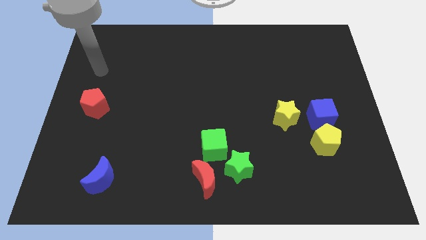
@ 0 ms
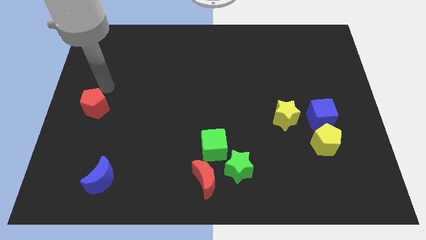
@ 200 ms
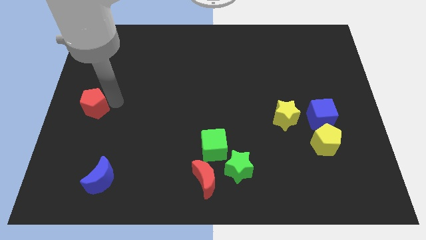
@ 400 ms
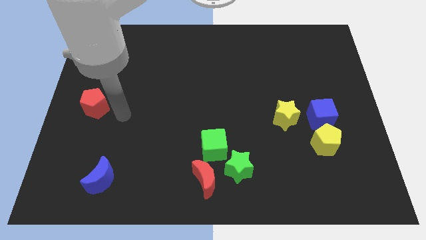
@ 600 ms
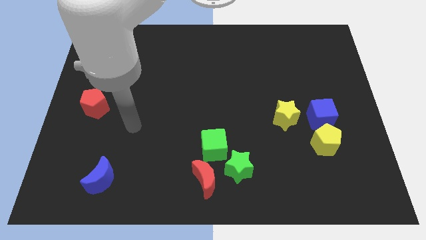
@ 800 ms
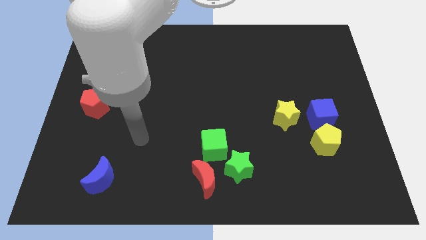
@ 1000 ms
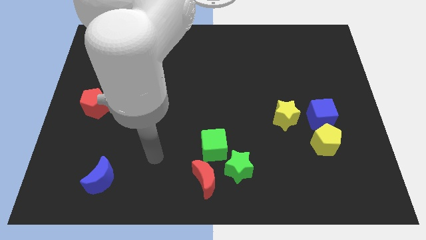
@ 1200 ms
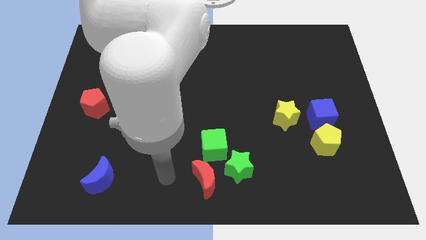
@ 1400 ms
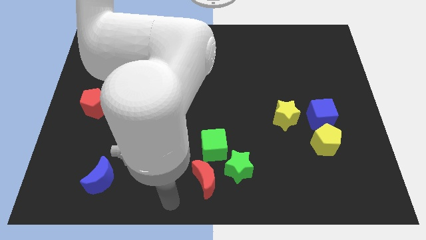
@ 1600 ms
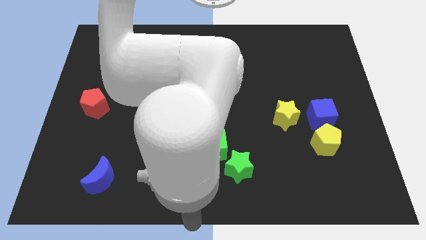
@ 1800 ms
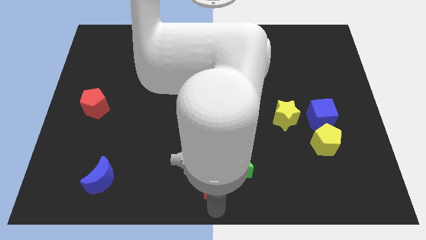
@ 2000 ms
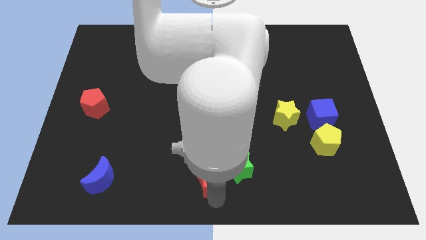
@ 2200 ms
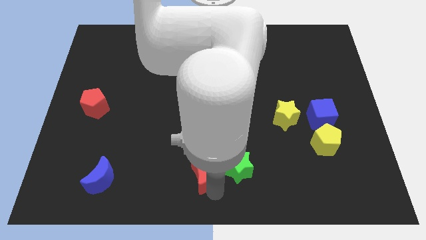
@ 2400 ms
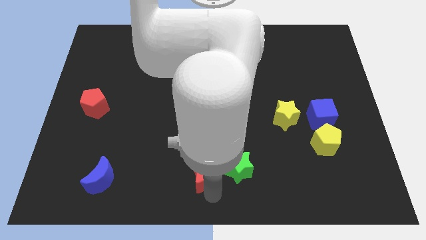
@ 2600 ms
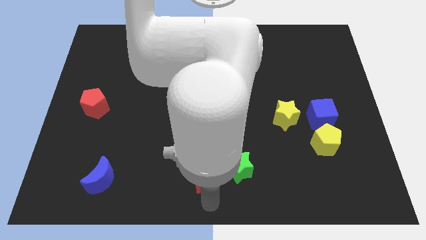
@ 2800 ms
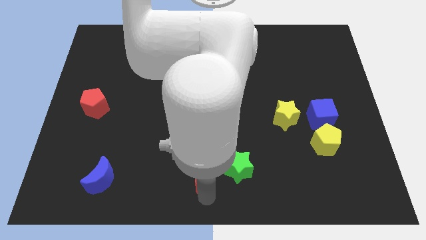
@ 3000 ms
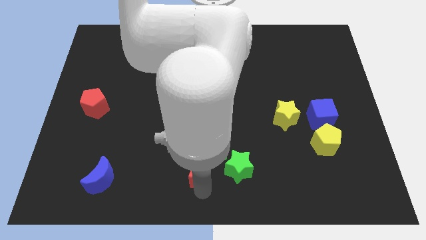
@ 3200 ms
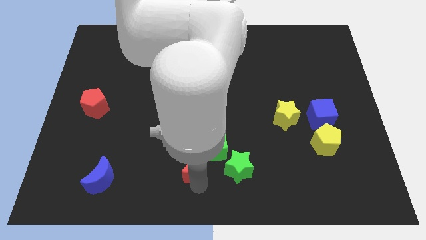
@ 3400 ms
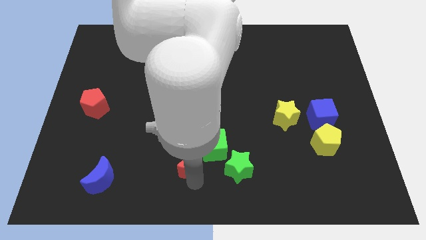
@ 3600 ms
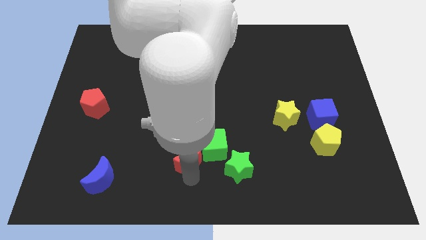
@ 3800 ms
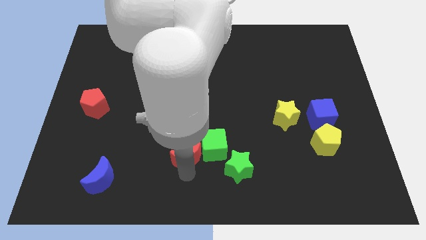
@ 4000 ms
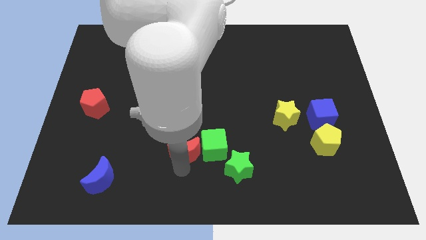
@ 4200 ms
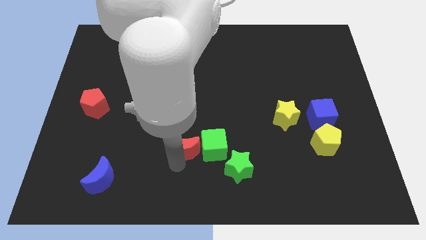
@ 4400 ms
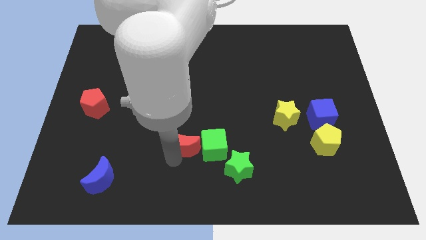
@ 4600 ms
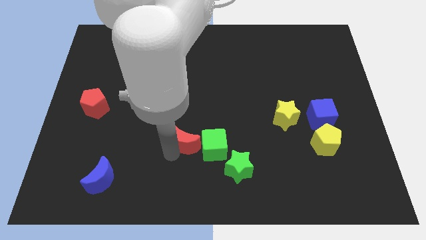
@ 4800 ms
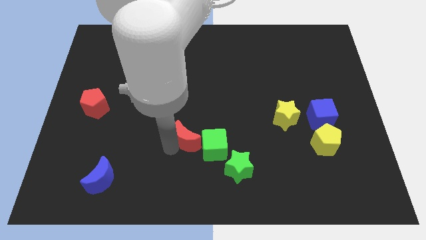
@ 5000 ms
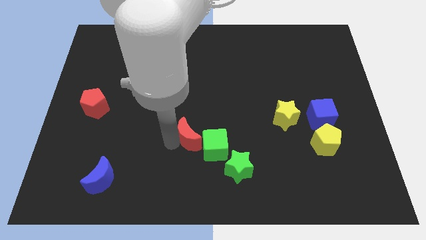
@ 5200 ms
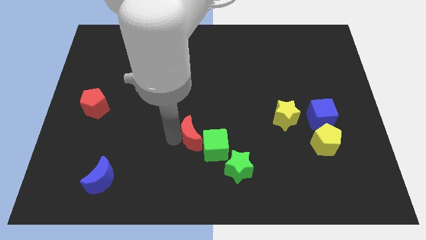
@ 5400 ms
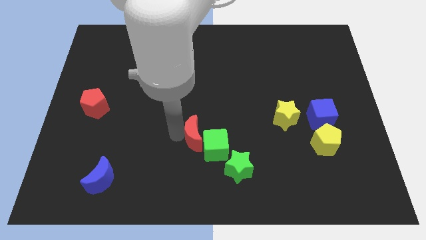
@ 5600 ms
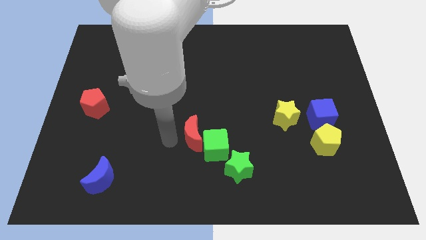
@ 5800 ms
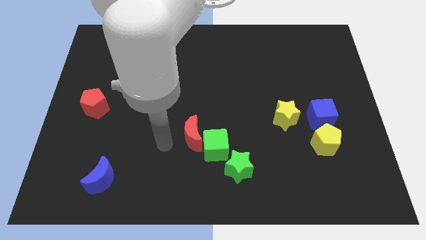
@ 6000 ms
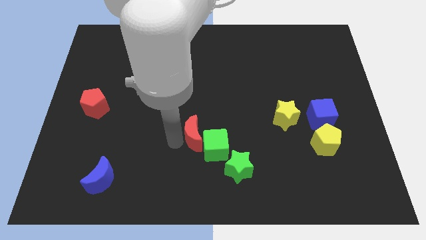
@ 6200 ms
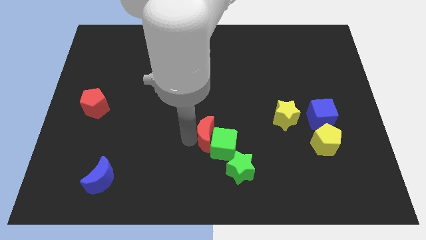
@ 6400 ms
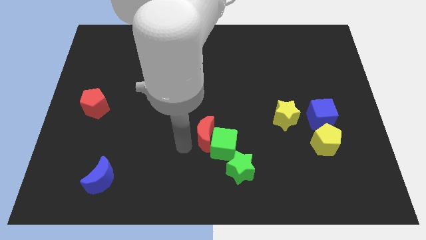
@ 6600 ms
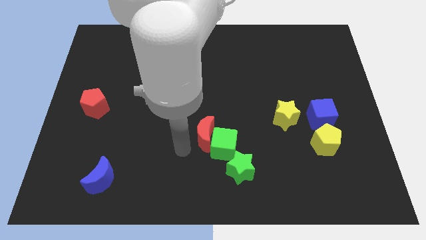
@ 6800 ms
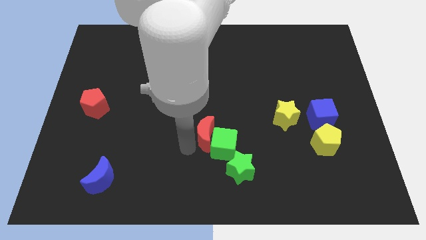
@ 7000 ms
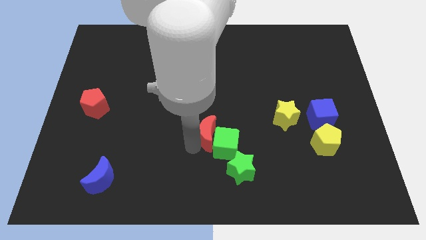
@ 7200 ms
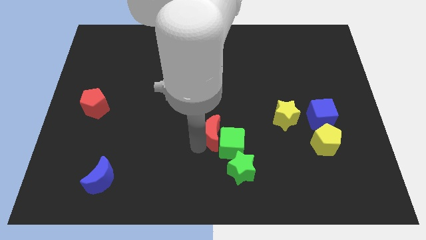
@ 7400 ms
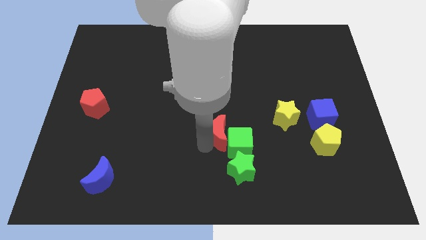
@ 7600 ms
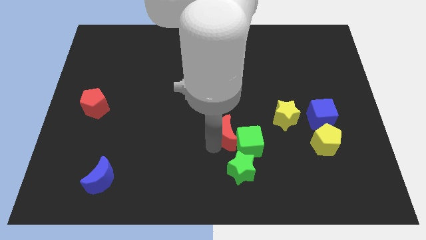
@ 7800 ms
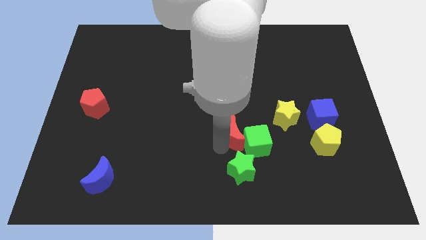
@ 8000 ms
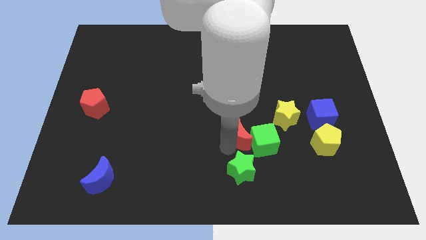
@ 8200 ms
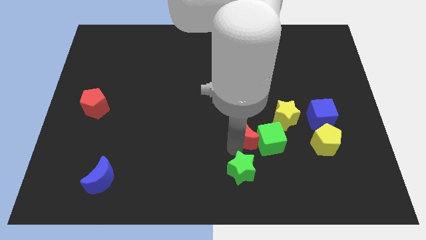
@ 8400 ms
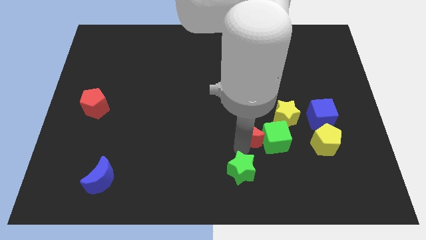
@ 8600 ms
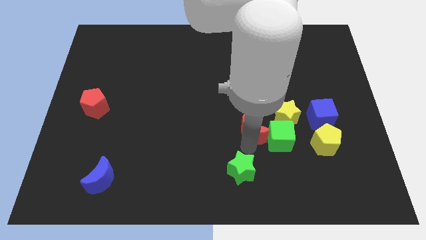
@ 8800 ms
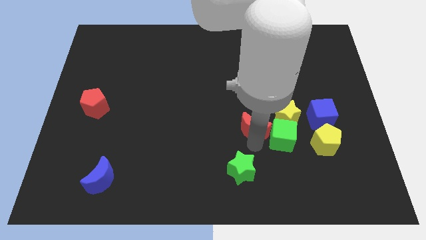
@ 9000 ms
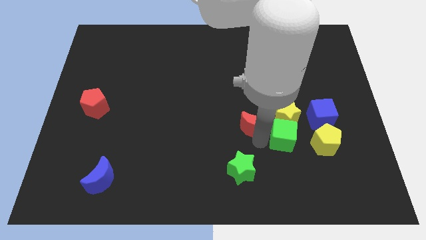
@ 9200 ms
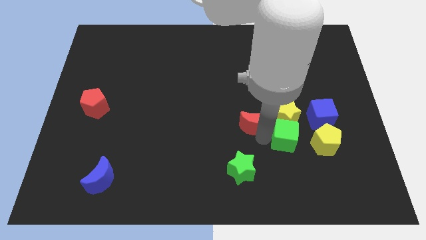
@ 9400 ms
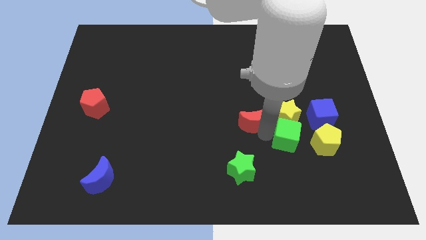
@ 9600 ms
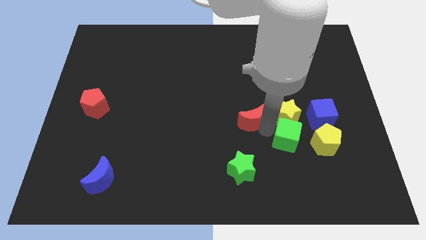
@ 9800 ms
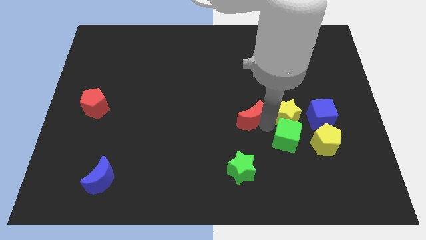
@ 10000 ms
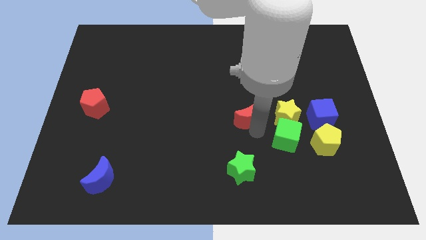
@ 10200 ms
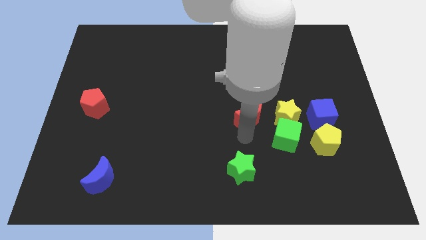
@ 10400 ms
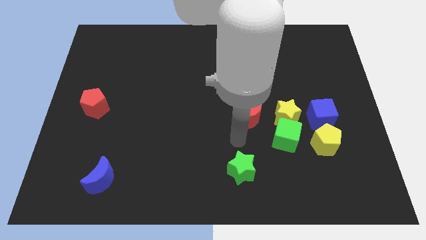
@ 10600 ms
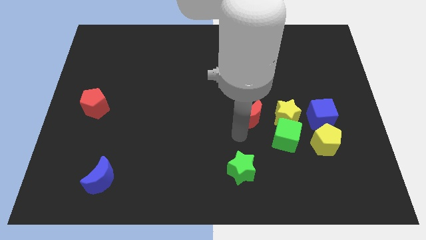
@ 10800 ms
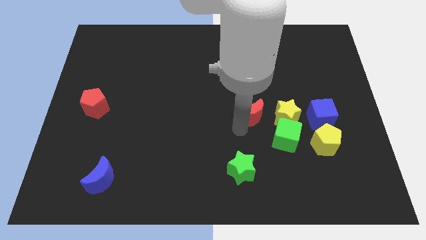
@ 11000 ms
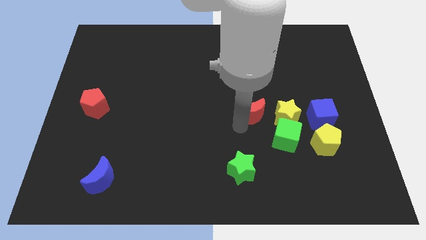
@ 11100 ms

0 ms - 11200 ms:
put the red moon to the top left of the yellow star

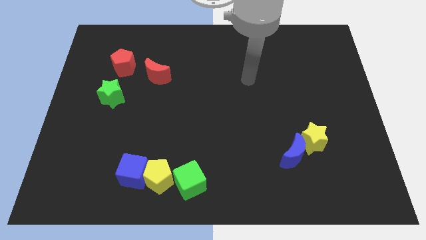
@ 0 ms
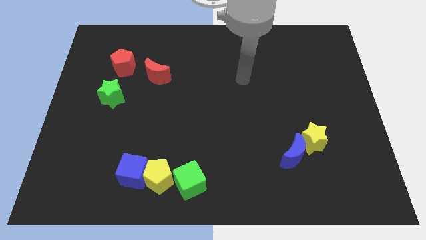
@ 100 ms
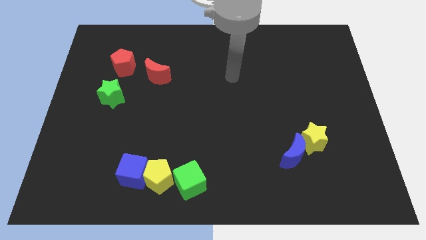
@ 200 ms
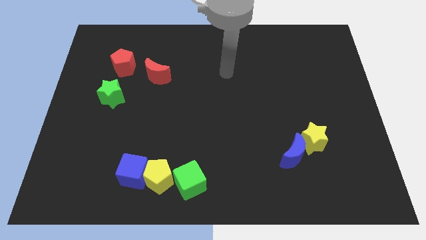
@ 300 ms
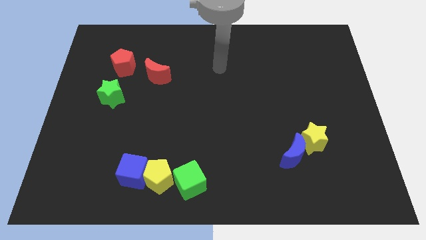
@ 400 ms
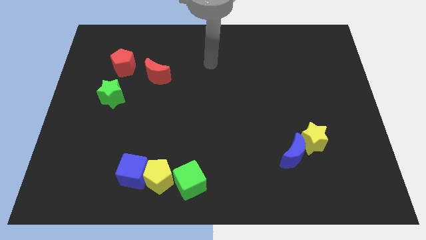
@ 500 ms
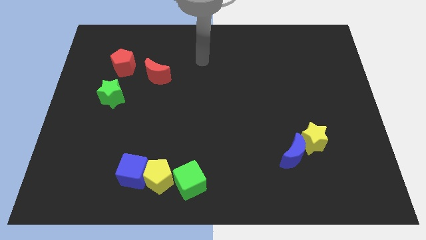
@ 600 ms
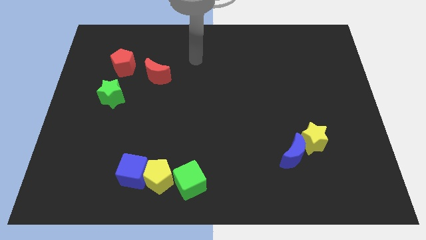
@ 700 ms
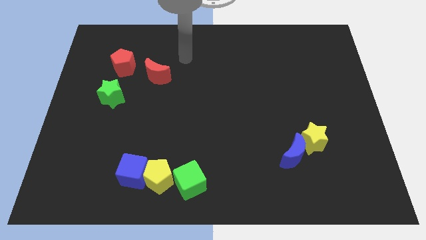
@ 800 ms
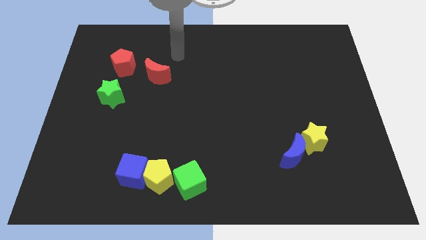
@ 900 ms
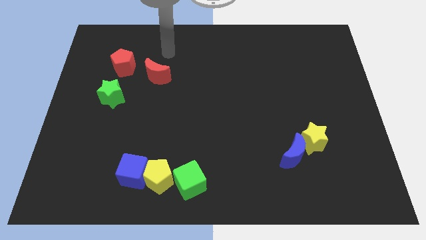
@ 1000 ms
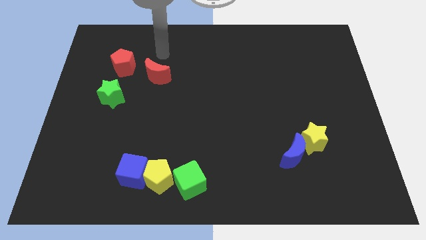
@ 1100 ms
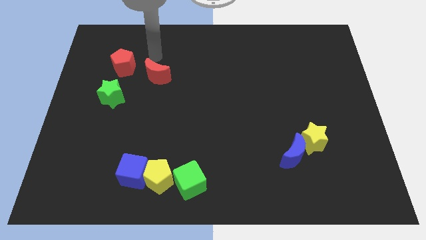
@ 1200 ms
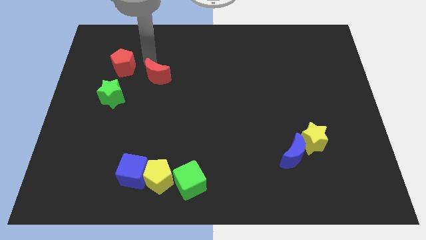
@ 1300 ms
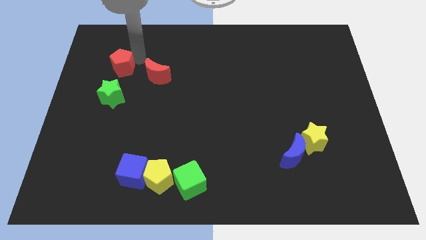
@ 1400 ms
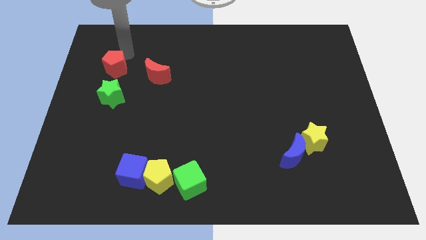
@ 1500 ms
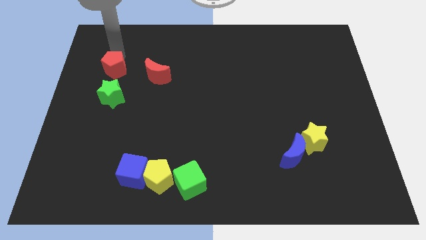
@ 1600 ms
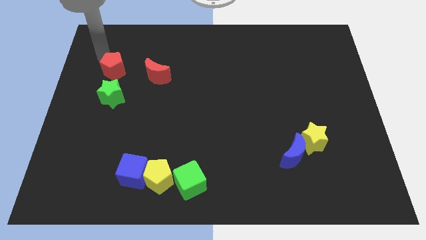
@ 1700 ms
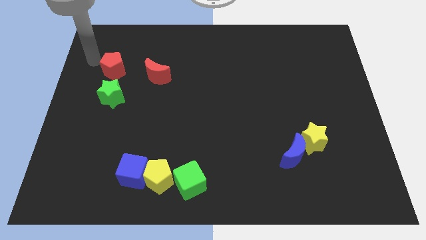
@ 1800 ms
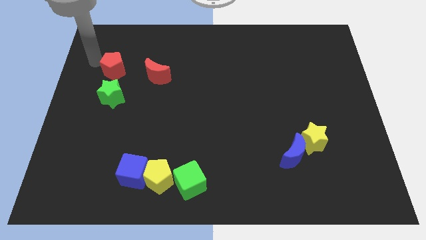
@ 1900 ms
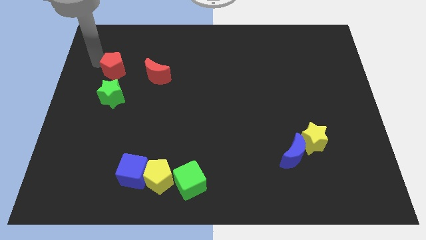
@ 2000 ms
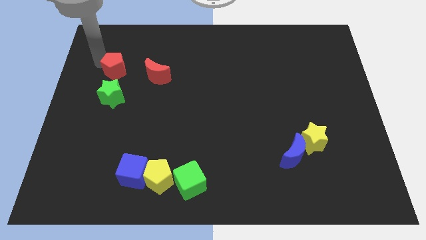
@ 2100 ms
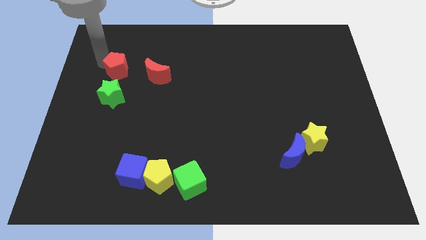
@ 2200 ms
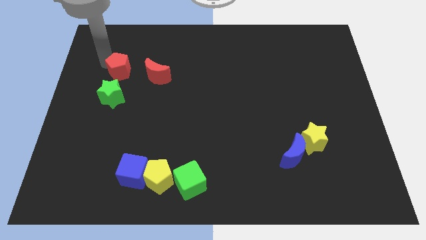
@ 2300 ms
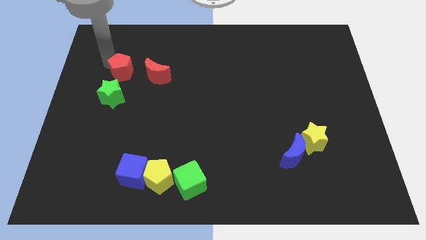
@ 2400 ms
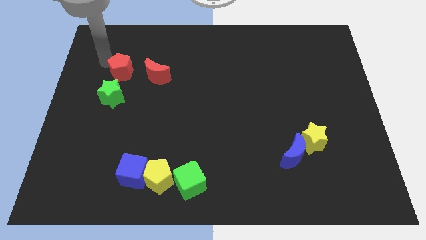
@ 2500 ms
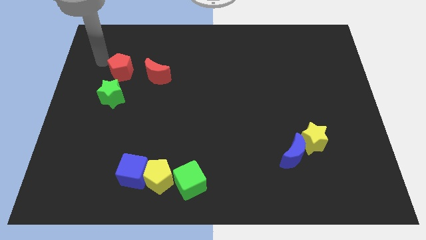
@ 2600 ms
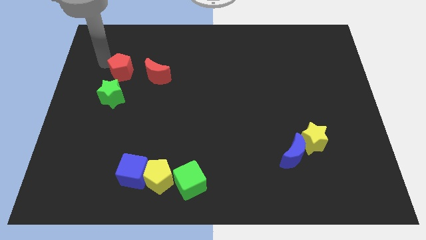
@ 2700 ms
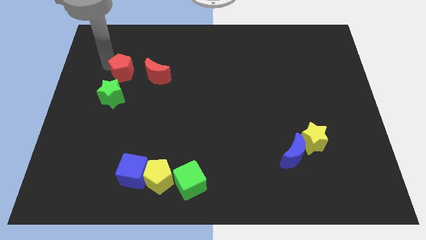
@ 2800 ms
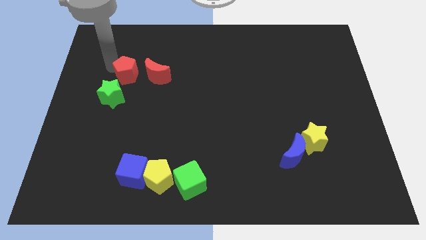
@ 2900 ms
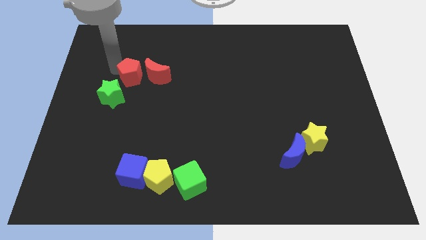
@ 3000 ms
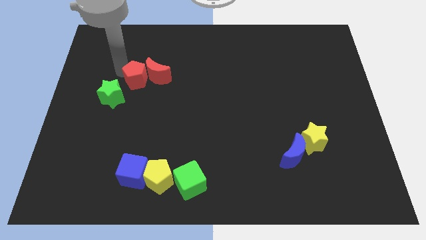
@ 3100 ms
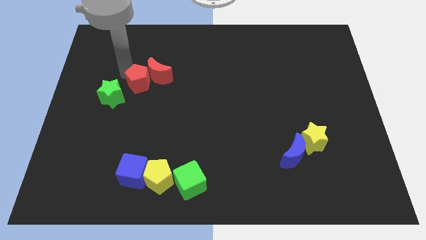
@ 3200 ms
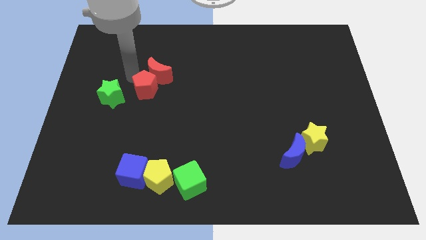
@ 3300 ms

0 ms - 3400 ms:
put the red pentagon below the red moon
